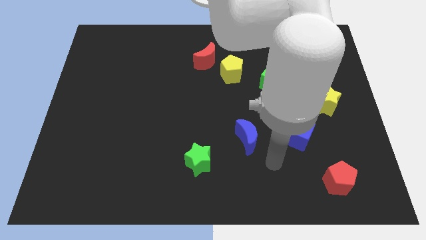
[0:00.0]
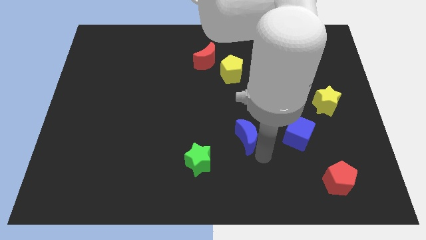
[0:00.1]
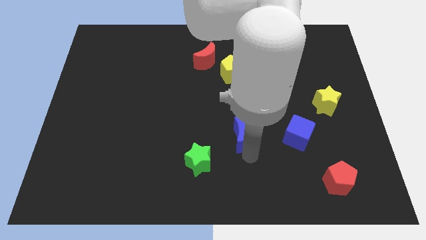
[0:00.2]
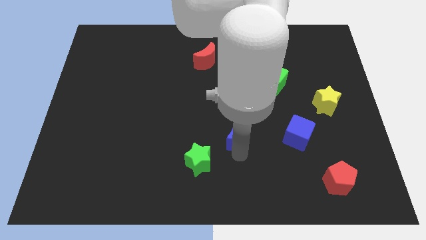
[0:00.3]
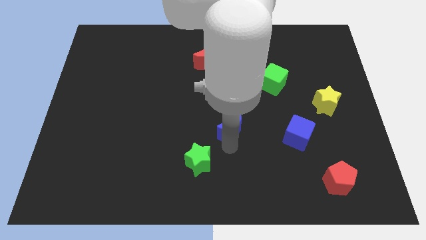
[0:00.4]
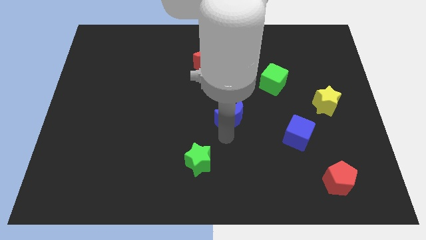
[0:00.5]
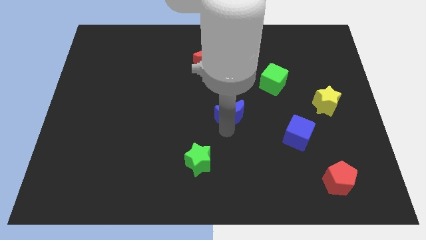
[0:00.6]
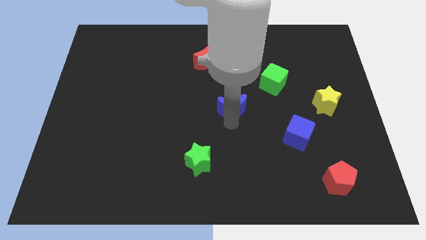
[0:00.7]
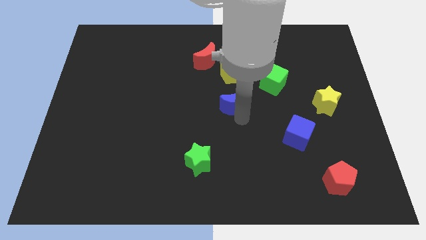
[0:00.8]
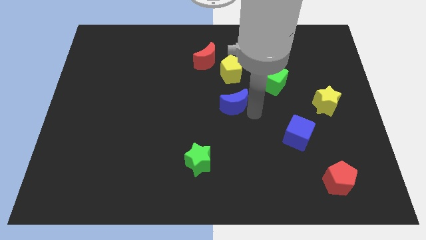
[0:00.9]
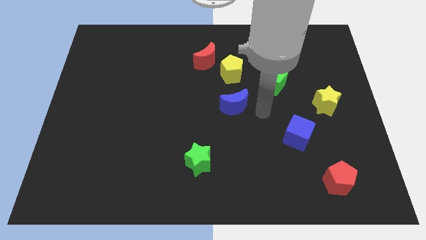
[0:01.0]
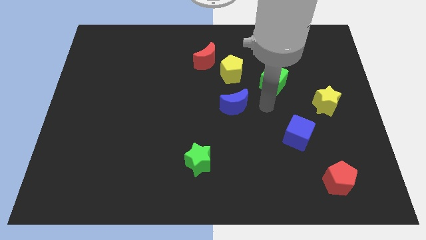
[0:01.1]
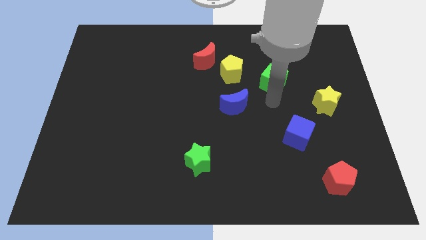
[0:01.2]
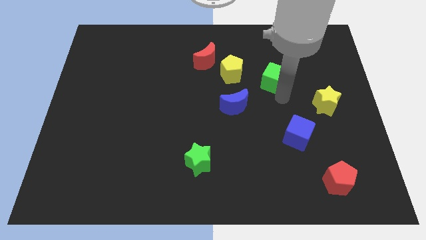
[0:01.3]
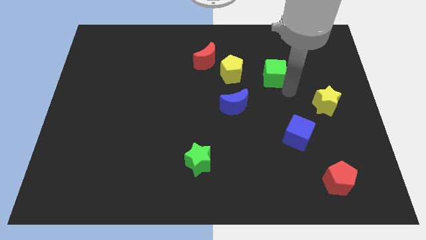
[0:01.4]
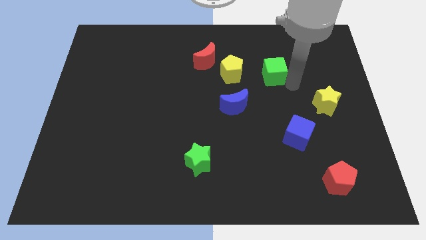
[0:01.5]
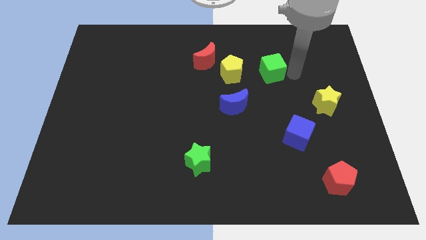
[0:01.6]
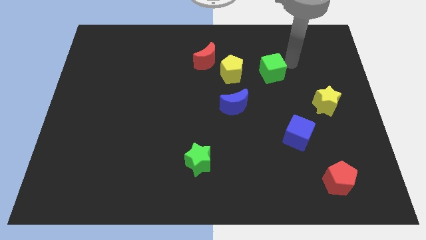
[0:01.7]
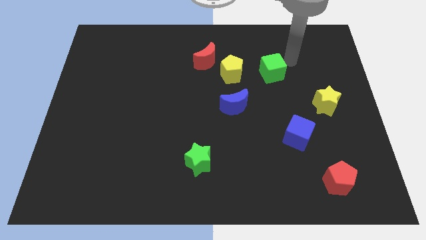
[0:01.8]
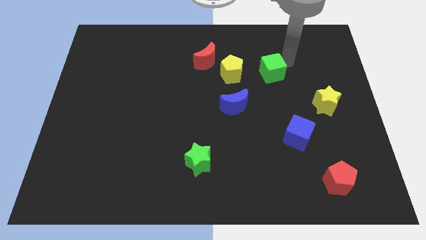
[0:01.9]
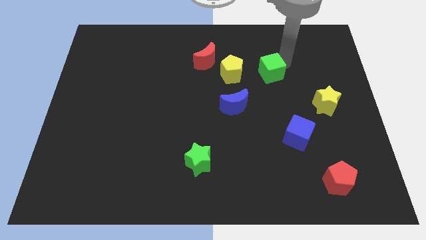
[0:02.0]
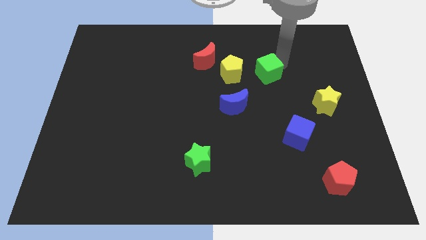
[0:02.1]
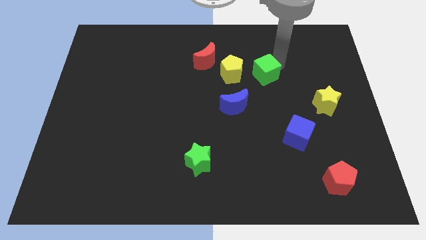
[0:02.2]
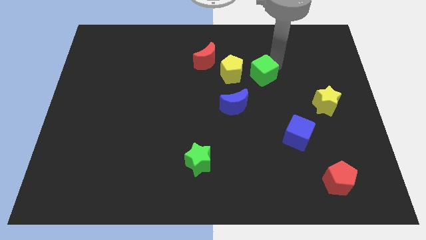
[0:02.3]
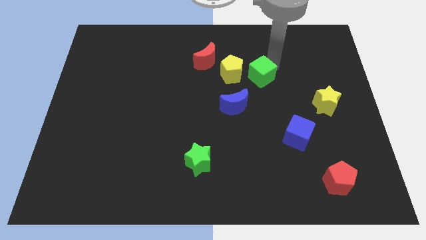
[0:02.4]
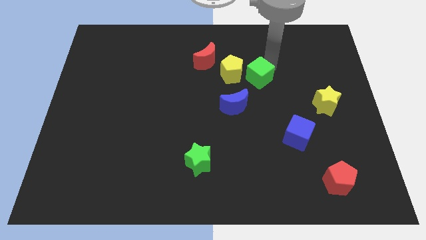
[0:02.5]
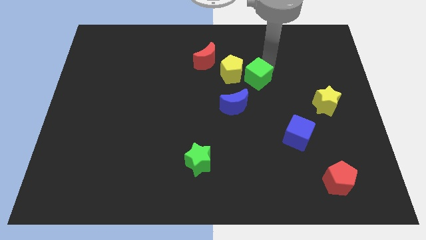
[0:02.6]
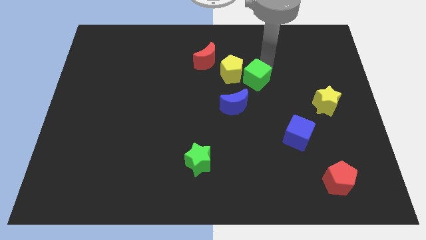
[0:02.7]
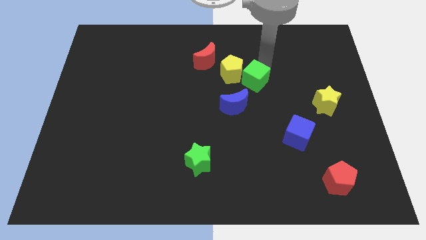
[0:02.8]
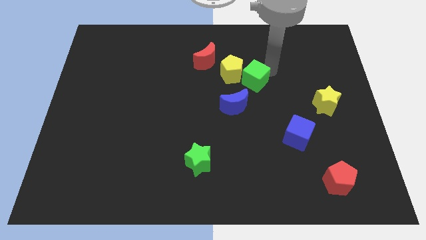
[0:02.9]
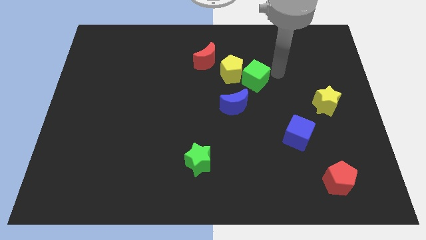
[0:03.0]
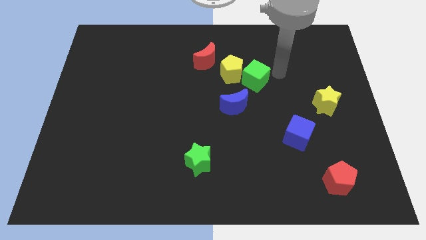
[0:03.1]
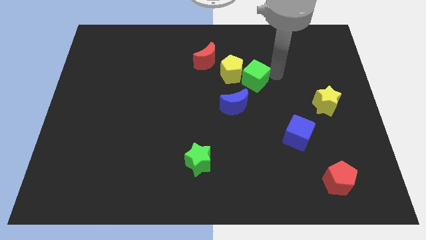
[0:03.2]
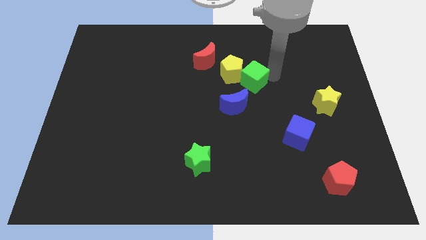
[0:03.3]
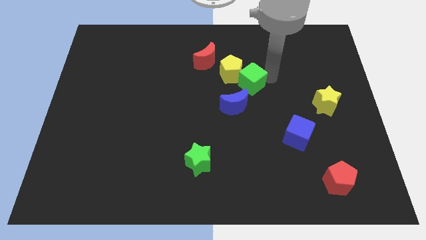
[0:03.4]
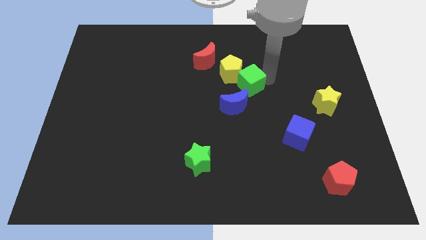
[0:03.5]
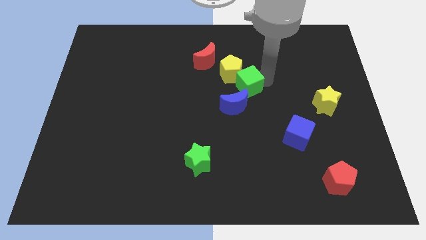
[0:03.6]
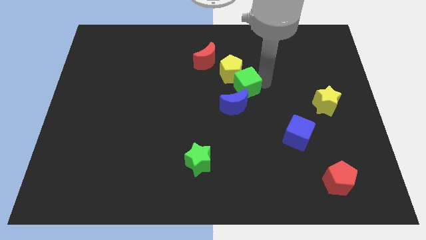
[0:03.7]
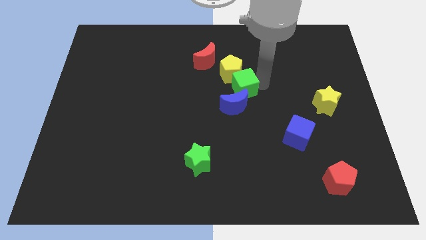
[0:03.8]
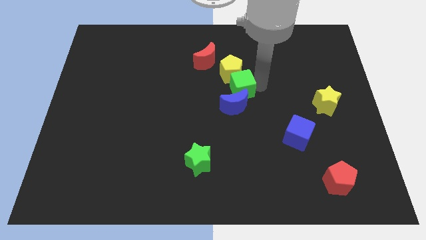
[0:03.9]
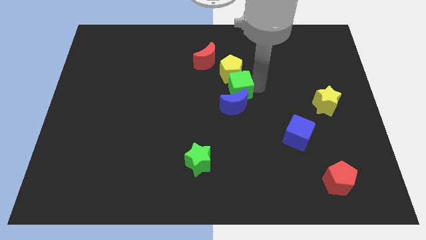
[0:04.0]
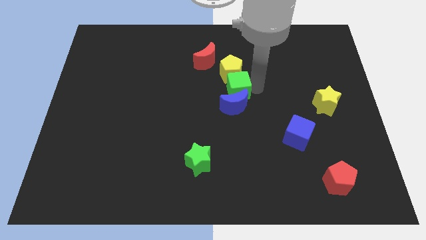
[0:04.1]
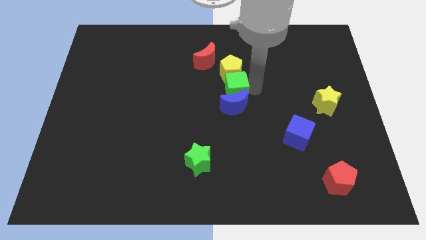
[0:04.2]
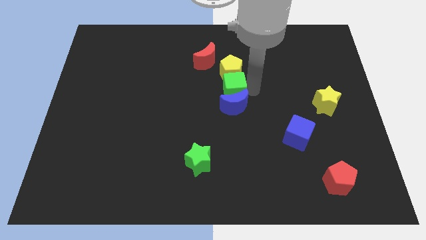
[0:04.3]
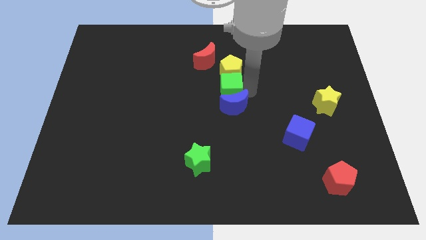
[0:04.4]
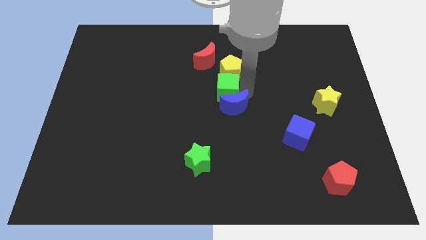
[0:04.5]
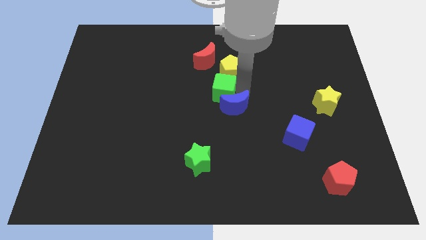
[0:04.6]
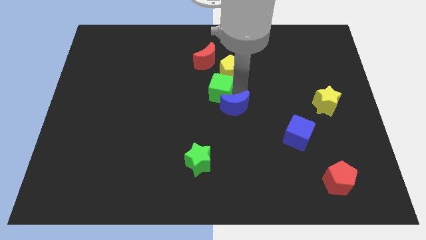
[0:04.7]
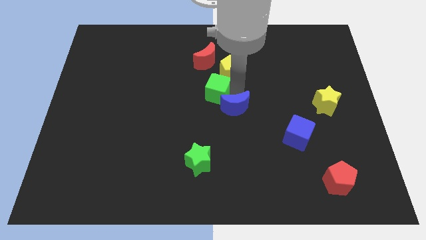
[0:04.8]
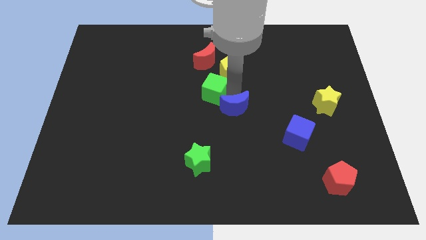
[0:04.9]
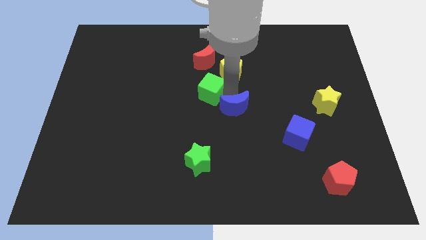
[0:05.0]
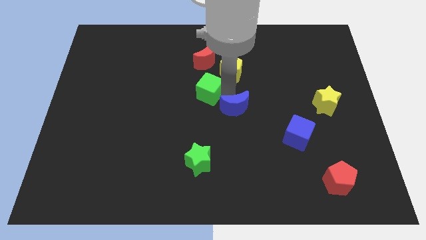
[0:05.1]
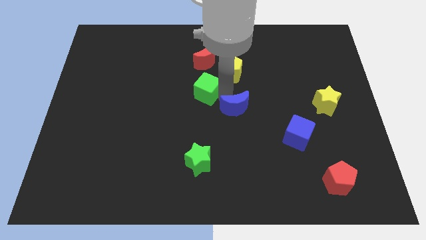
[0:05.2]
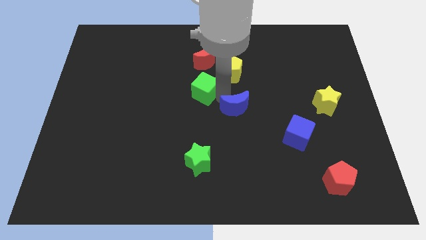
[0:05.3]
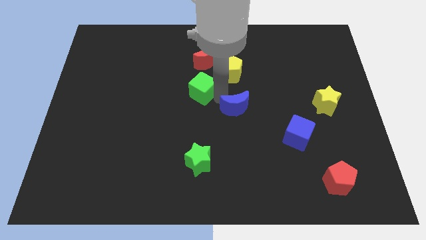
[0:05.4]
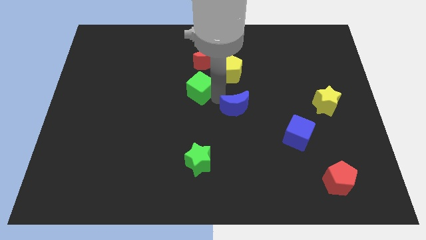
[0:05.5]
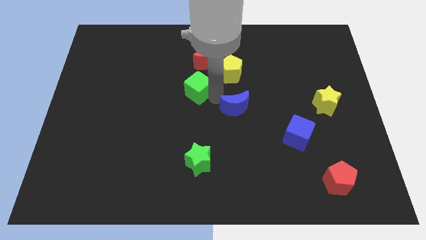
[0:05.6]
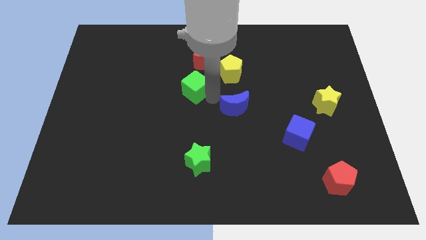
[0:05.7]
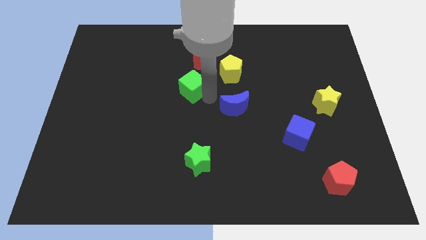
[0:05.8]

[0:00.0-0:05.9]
put the green cube to the bottom left side of the red moon

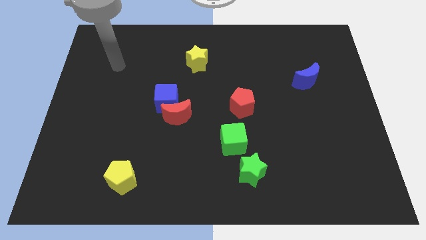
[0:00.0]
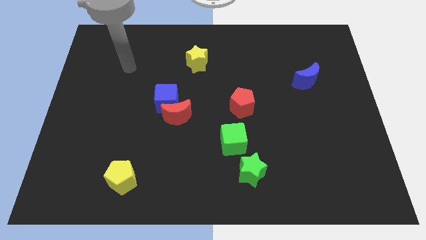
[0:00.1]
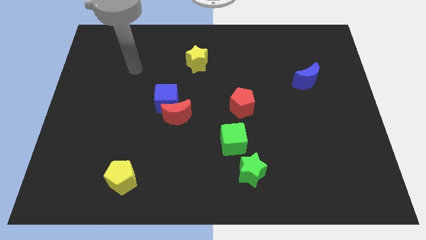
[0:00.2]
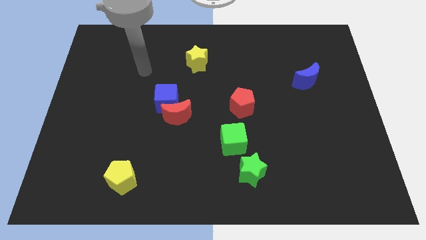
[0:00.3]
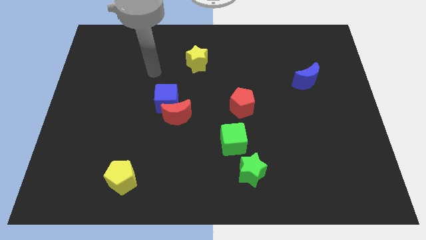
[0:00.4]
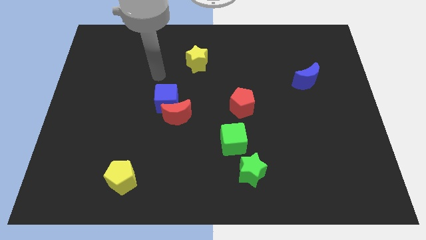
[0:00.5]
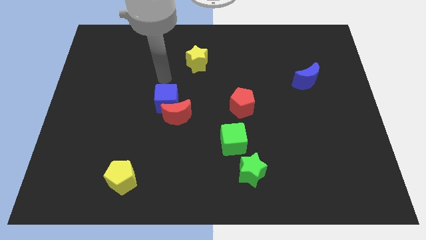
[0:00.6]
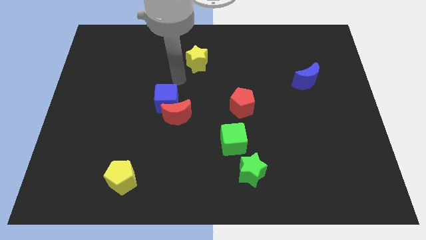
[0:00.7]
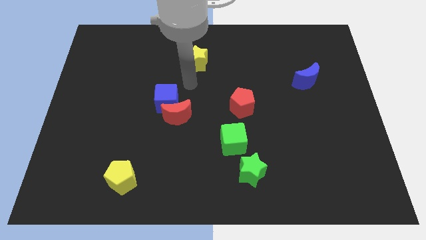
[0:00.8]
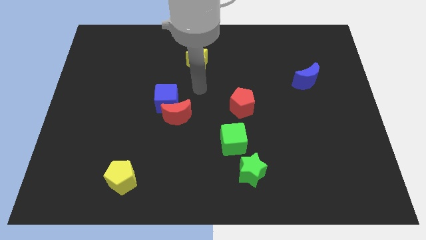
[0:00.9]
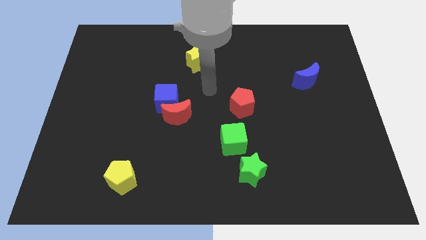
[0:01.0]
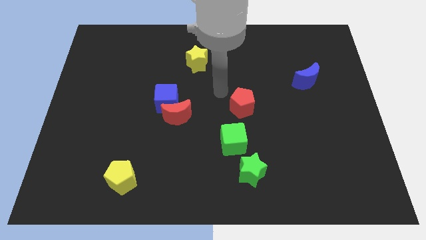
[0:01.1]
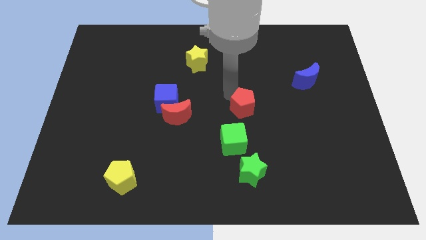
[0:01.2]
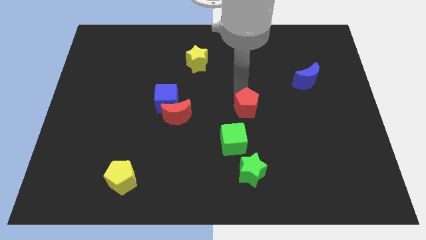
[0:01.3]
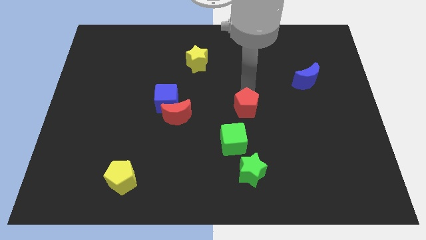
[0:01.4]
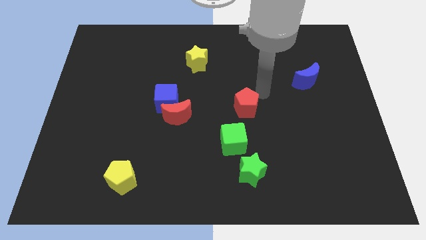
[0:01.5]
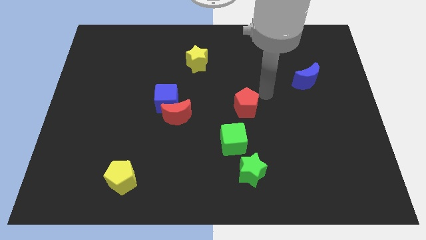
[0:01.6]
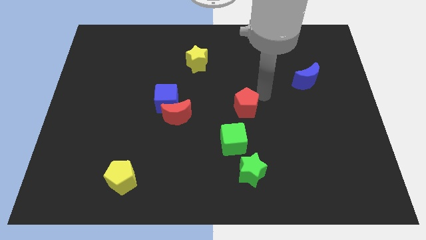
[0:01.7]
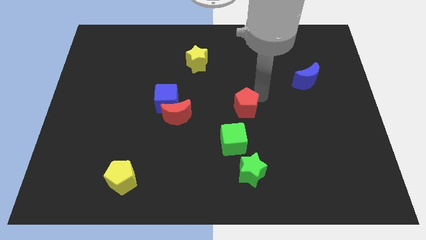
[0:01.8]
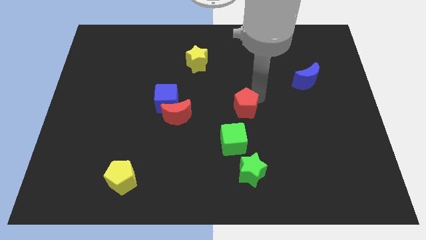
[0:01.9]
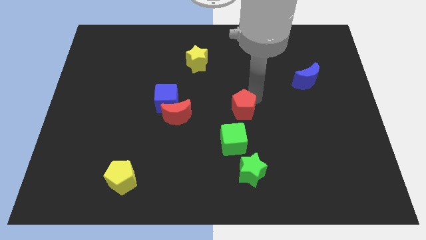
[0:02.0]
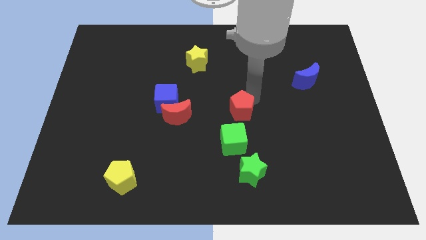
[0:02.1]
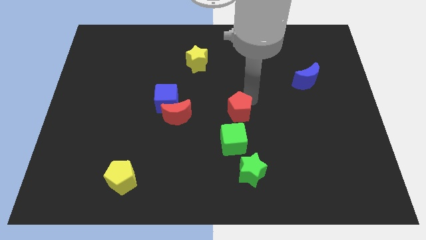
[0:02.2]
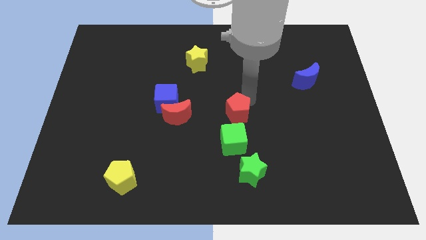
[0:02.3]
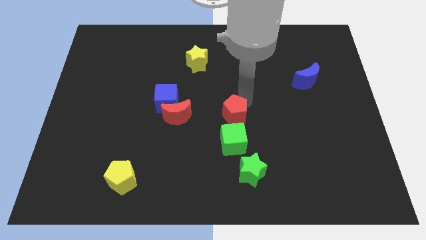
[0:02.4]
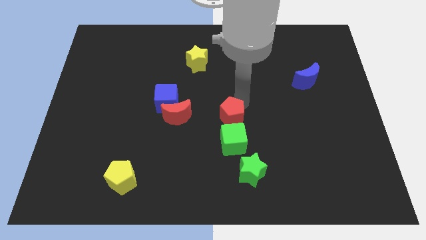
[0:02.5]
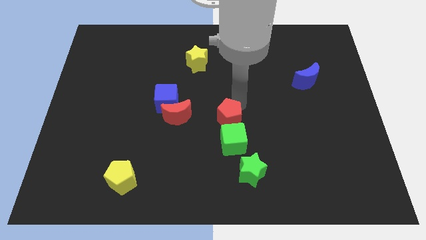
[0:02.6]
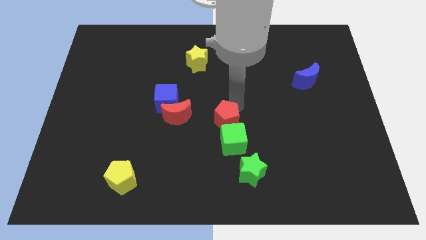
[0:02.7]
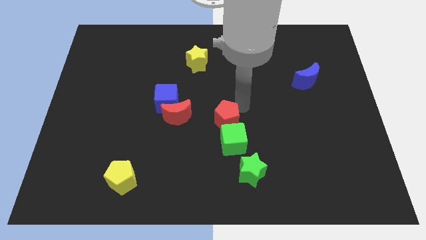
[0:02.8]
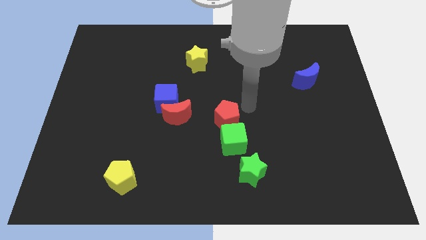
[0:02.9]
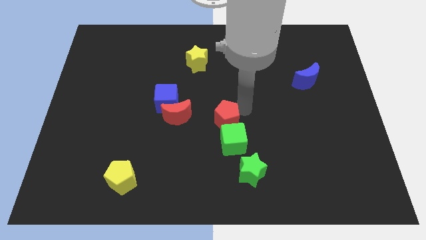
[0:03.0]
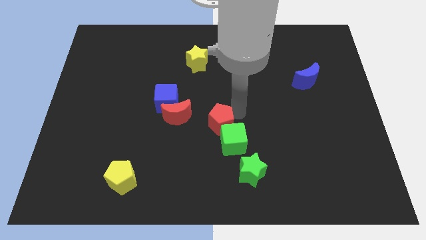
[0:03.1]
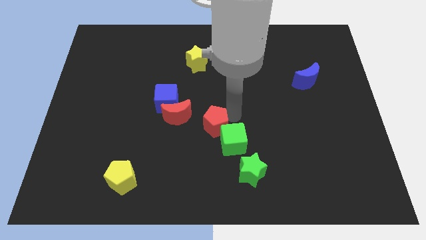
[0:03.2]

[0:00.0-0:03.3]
put the red pentagon to the left of the green cube
